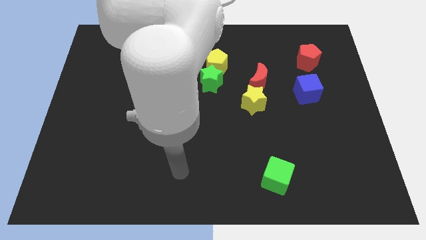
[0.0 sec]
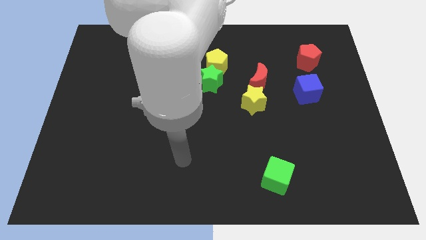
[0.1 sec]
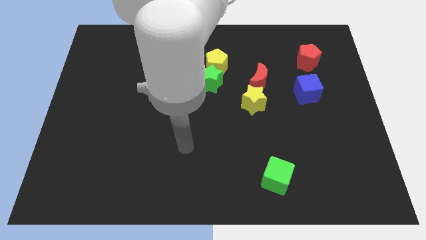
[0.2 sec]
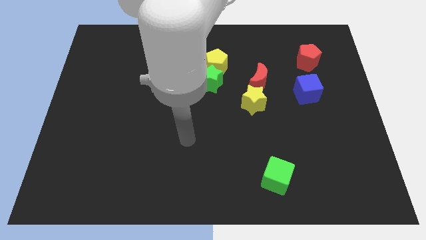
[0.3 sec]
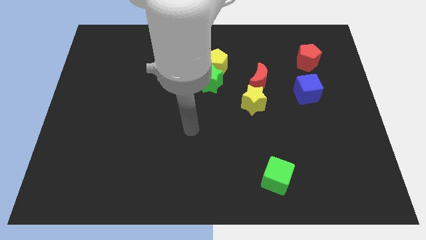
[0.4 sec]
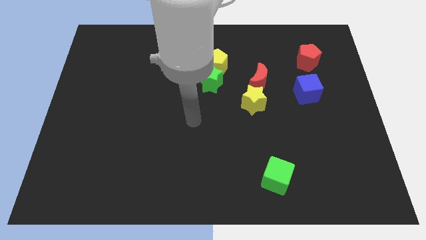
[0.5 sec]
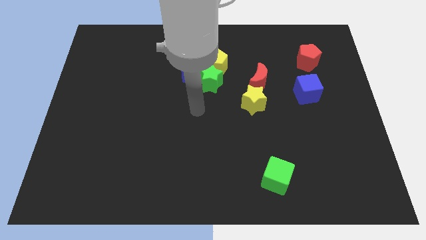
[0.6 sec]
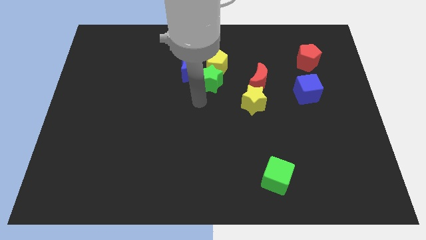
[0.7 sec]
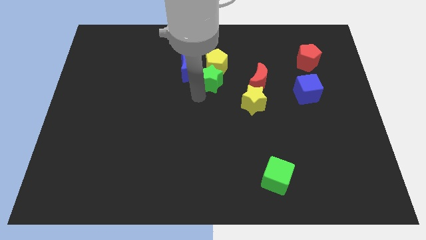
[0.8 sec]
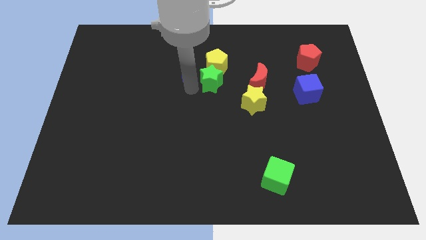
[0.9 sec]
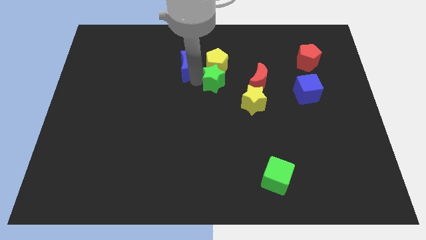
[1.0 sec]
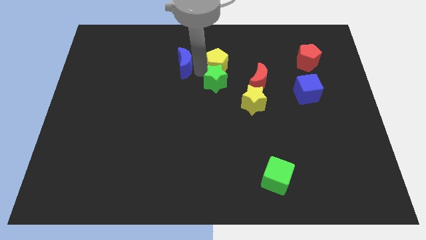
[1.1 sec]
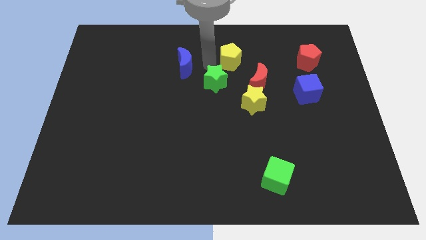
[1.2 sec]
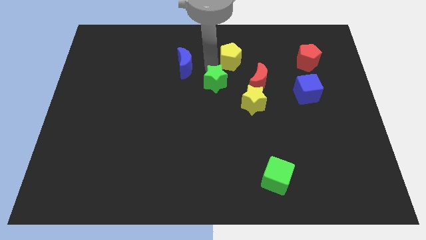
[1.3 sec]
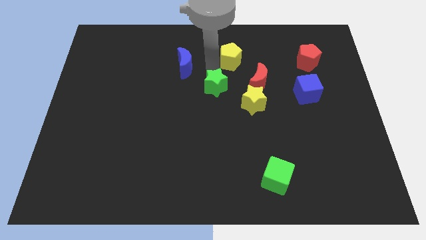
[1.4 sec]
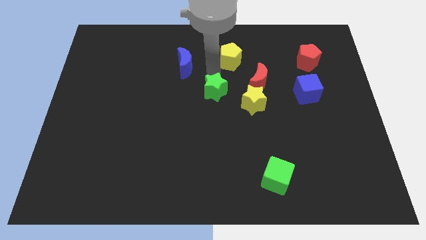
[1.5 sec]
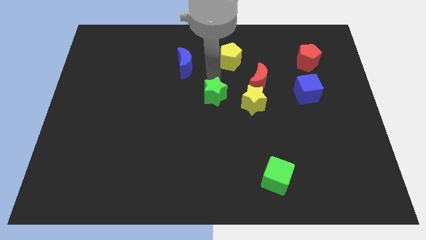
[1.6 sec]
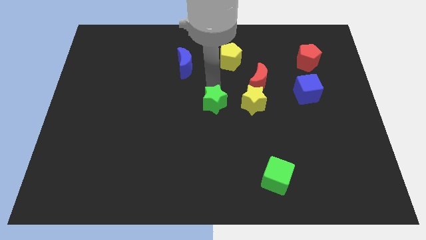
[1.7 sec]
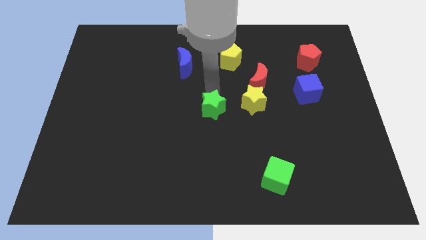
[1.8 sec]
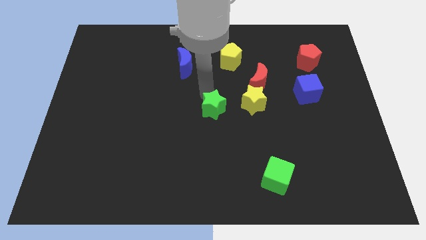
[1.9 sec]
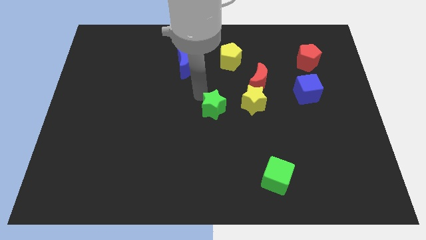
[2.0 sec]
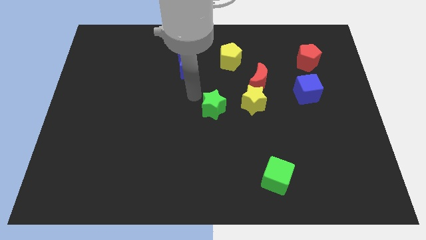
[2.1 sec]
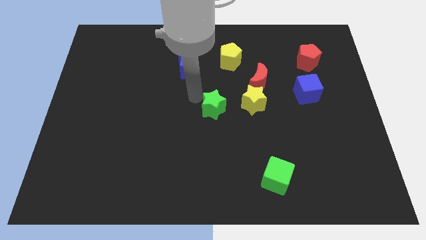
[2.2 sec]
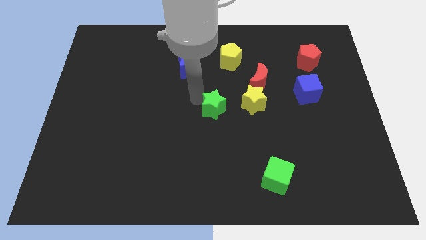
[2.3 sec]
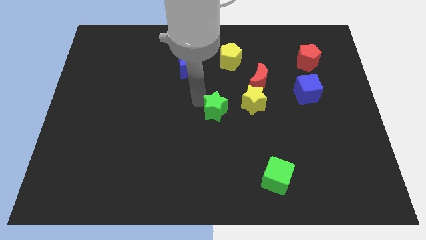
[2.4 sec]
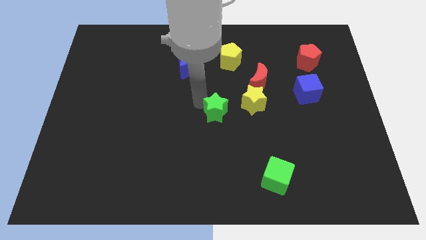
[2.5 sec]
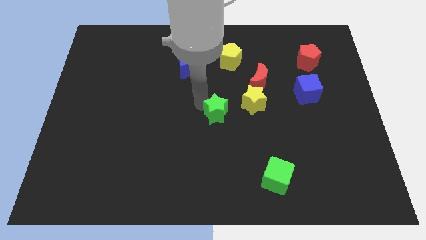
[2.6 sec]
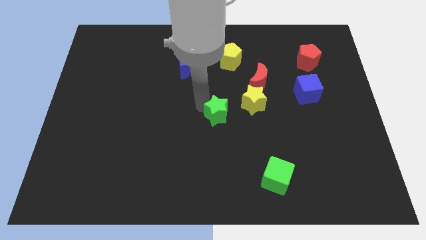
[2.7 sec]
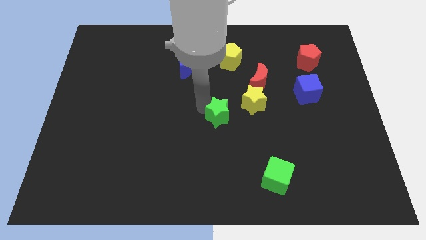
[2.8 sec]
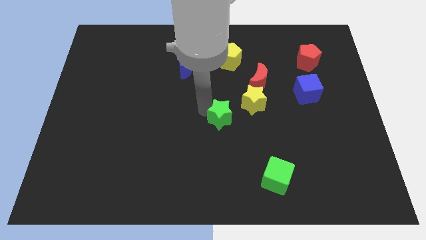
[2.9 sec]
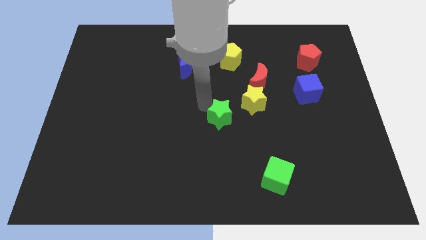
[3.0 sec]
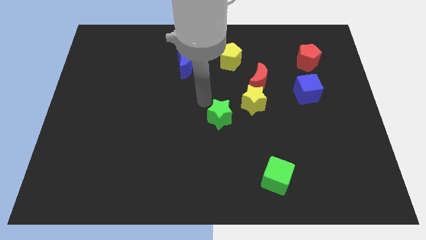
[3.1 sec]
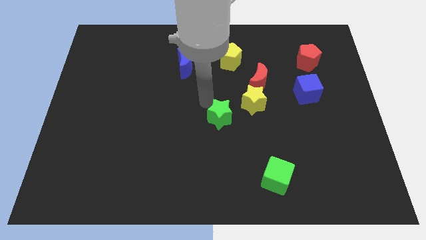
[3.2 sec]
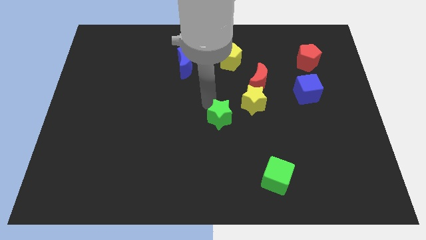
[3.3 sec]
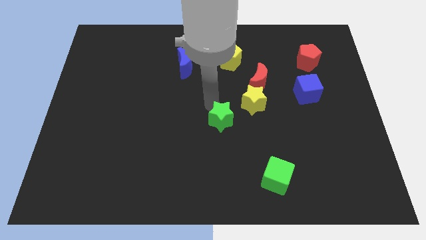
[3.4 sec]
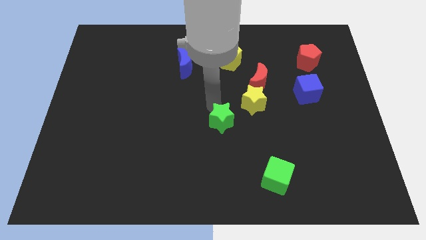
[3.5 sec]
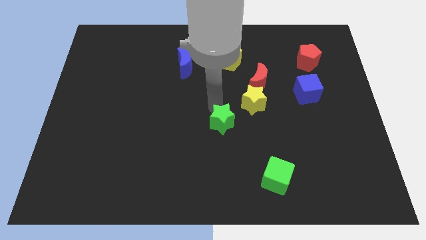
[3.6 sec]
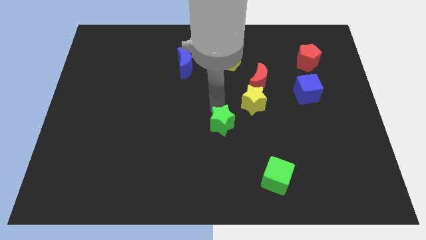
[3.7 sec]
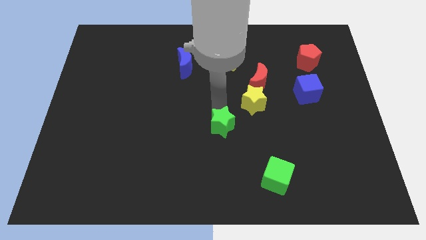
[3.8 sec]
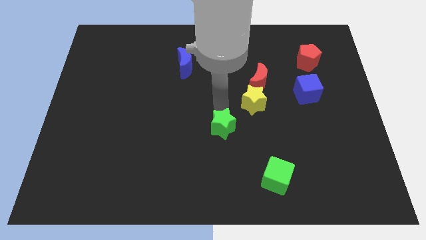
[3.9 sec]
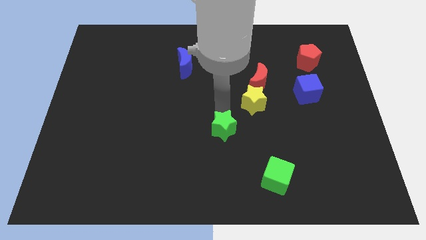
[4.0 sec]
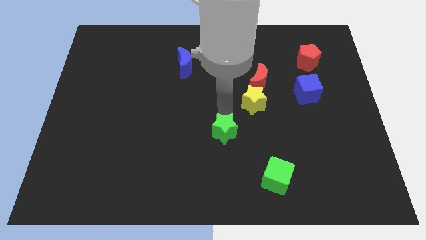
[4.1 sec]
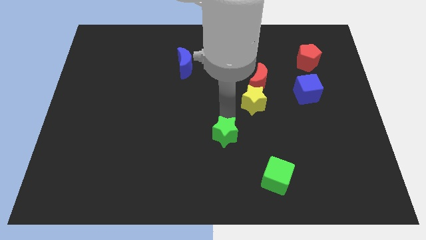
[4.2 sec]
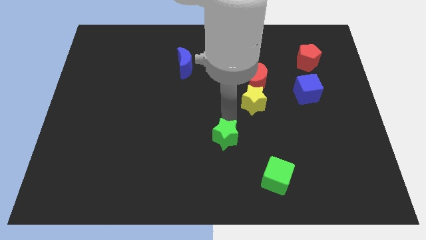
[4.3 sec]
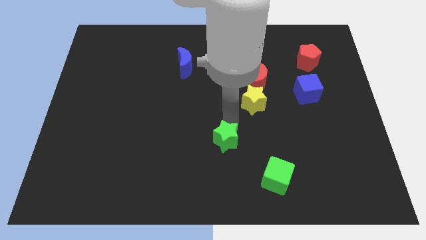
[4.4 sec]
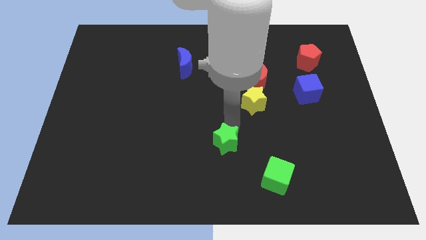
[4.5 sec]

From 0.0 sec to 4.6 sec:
push the green star diagonally up and to the left of the green cube

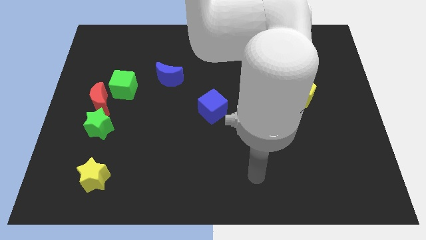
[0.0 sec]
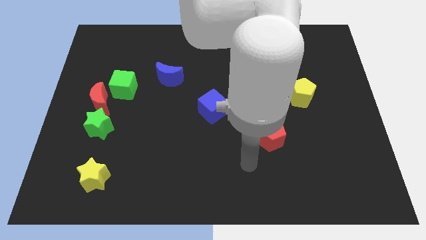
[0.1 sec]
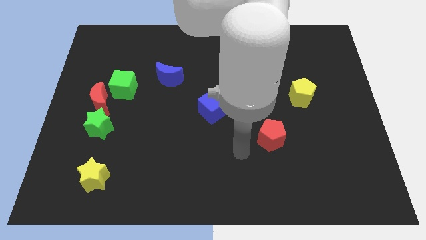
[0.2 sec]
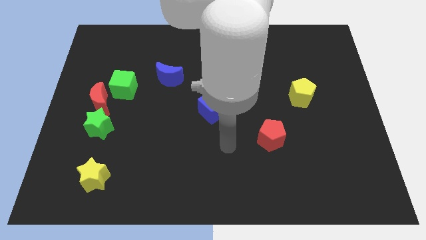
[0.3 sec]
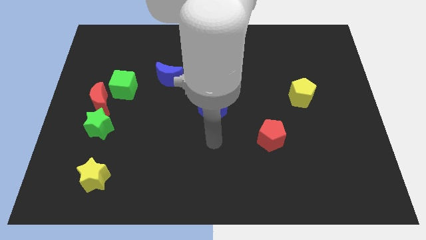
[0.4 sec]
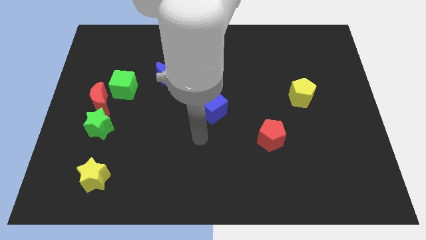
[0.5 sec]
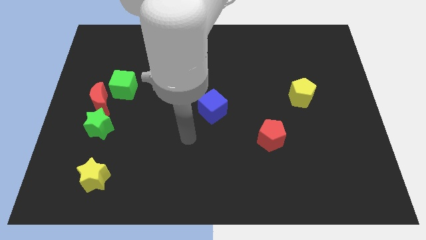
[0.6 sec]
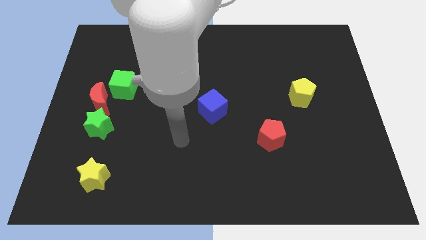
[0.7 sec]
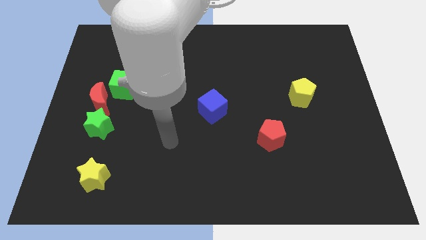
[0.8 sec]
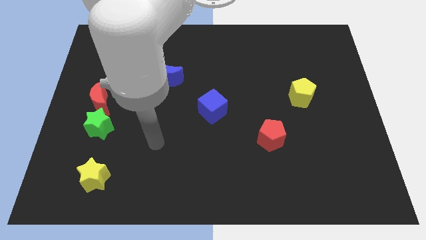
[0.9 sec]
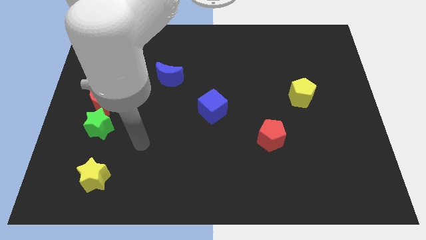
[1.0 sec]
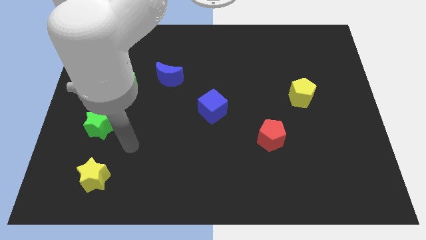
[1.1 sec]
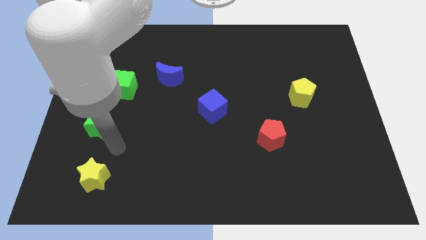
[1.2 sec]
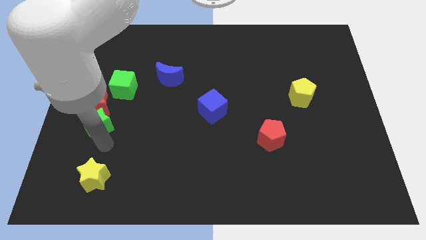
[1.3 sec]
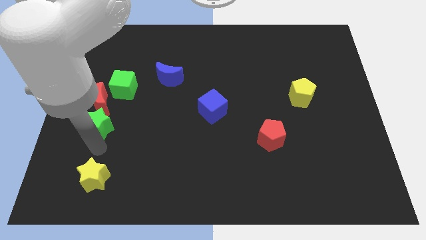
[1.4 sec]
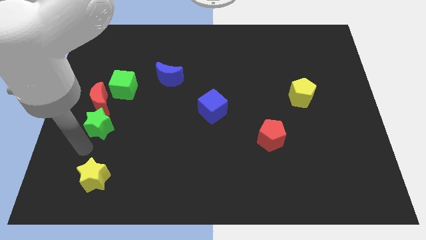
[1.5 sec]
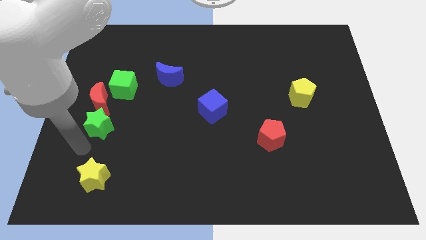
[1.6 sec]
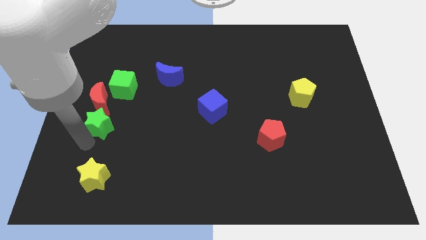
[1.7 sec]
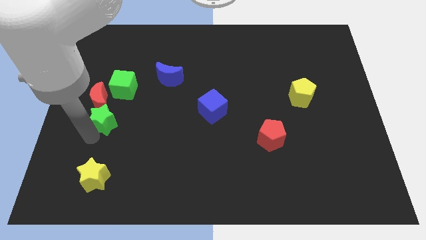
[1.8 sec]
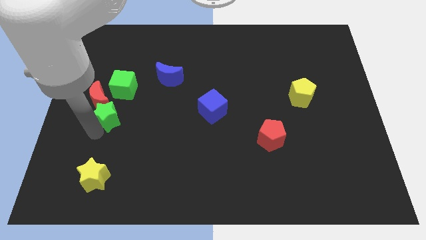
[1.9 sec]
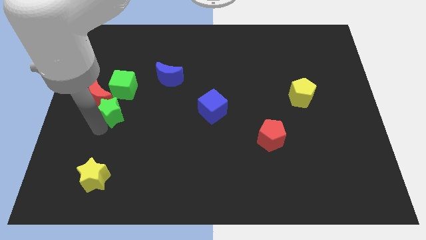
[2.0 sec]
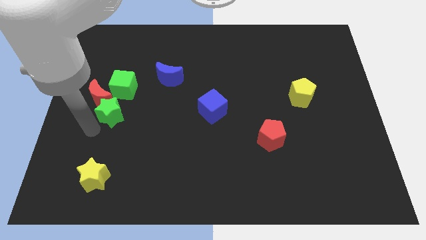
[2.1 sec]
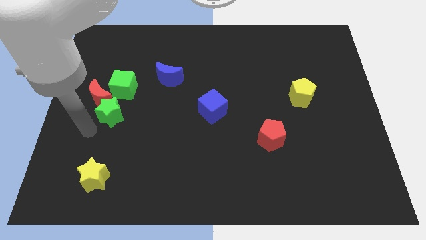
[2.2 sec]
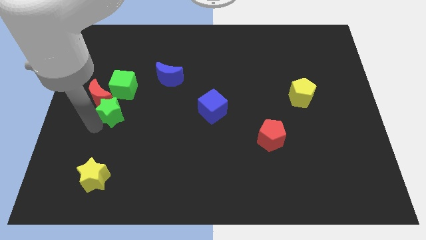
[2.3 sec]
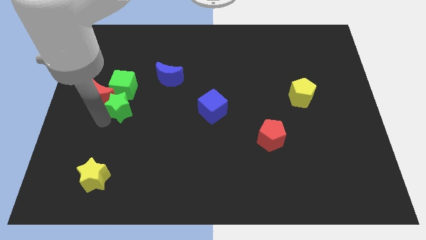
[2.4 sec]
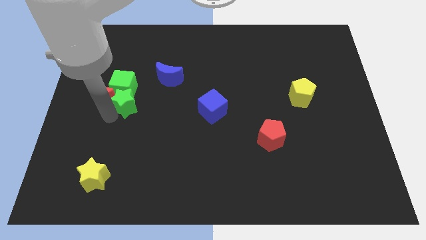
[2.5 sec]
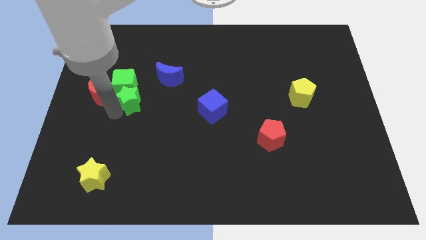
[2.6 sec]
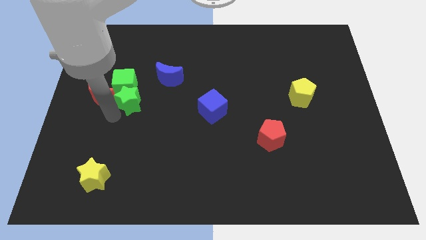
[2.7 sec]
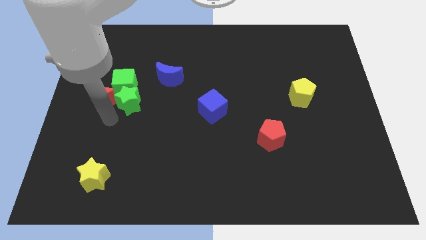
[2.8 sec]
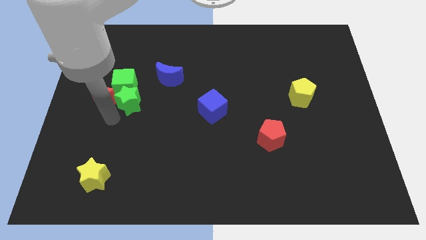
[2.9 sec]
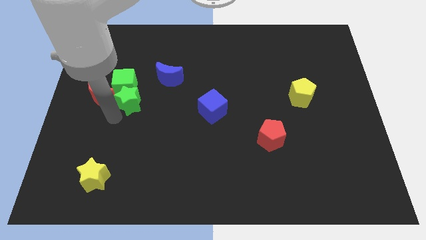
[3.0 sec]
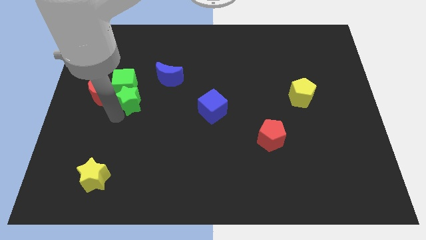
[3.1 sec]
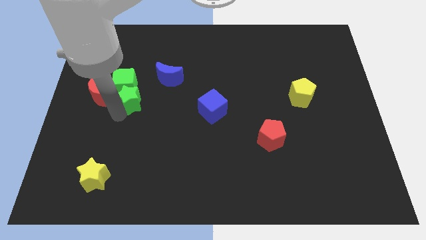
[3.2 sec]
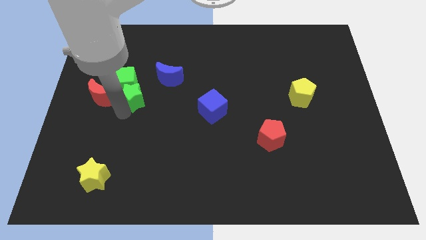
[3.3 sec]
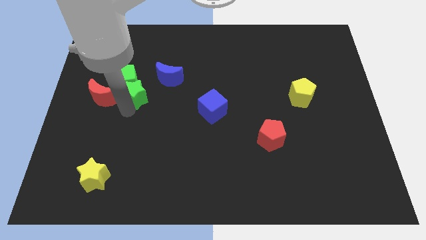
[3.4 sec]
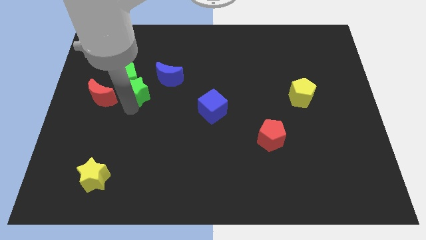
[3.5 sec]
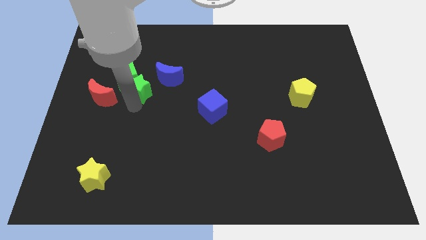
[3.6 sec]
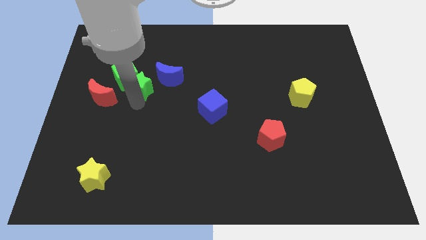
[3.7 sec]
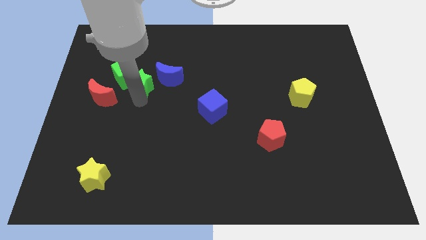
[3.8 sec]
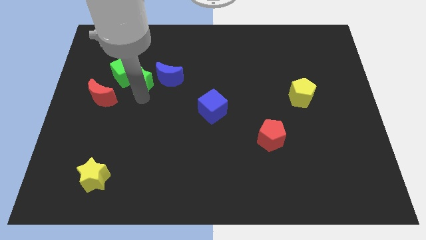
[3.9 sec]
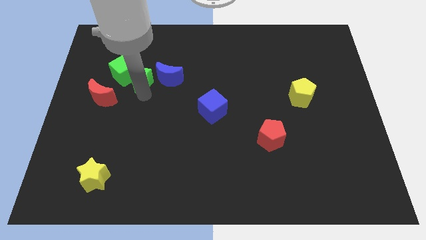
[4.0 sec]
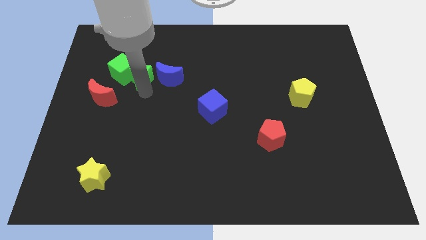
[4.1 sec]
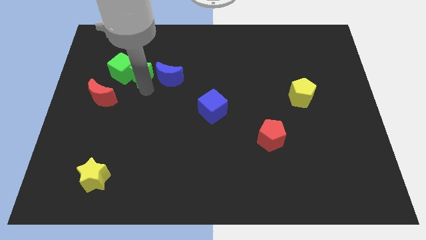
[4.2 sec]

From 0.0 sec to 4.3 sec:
move the green star to the top right of the green cube
